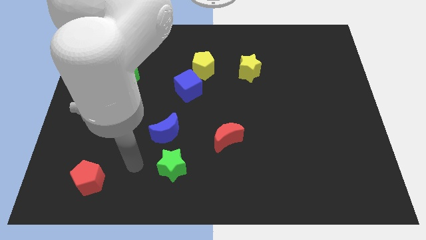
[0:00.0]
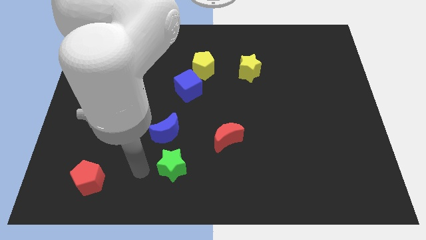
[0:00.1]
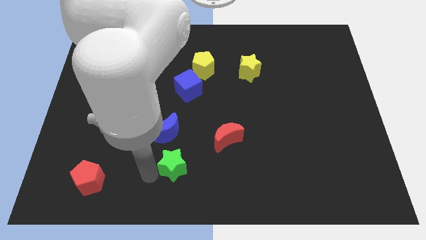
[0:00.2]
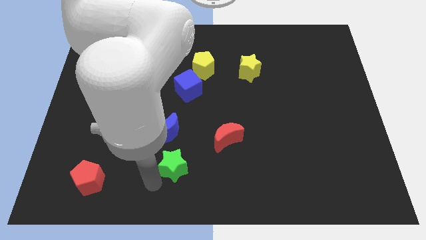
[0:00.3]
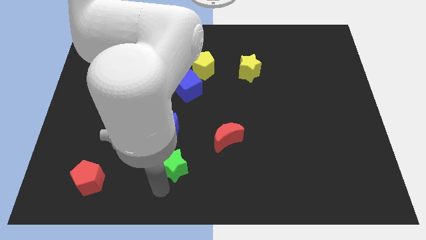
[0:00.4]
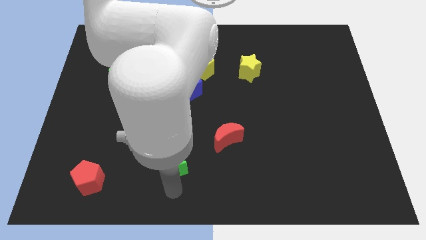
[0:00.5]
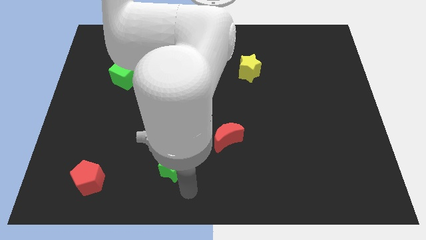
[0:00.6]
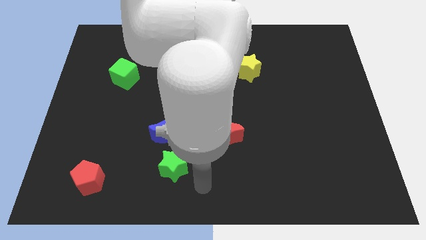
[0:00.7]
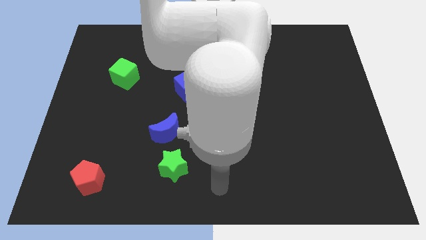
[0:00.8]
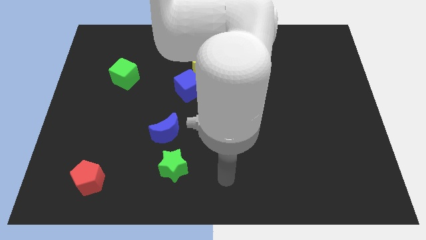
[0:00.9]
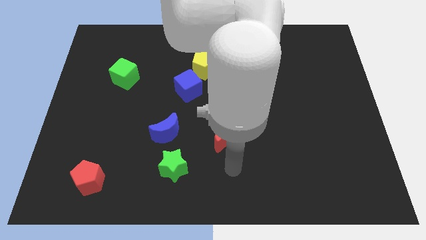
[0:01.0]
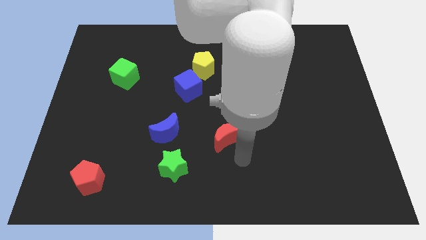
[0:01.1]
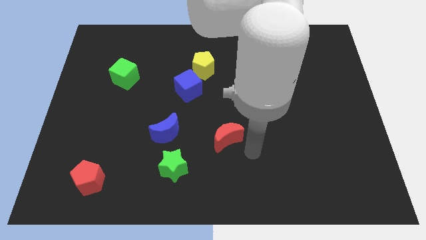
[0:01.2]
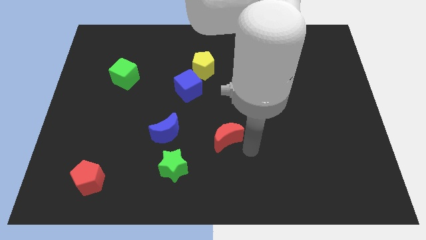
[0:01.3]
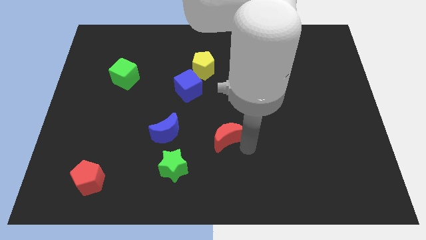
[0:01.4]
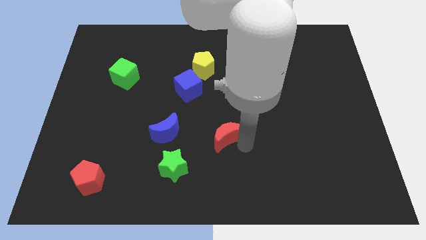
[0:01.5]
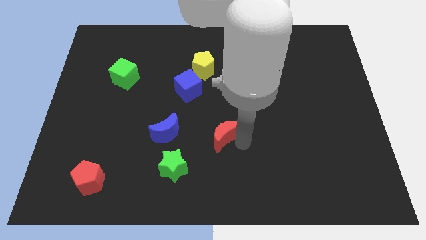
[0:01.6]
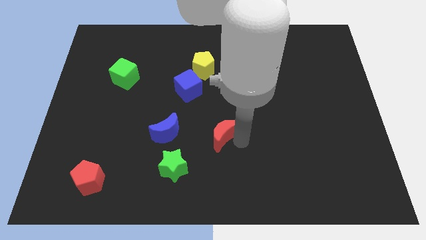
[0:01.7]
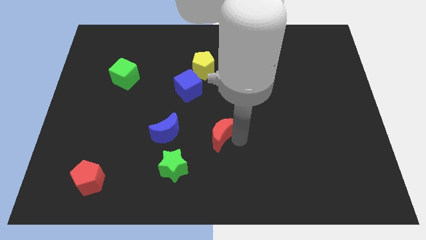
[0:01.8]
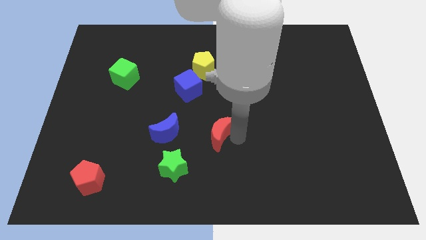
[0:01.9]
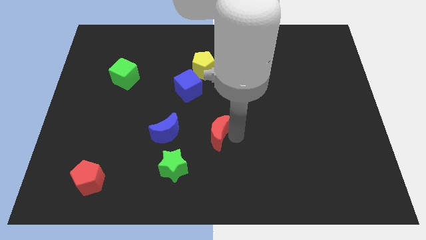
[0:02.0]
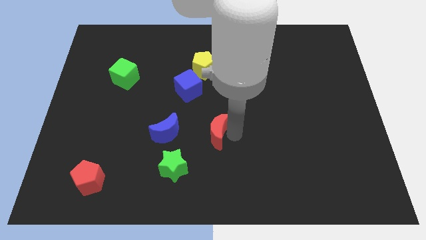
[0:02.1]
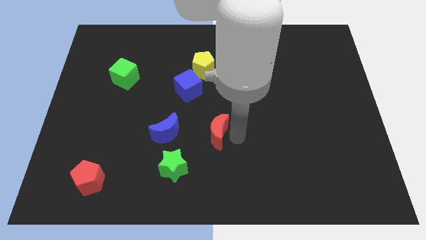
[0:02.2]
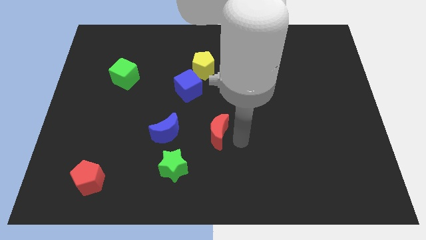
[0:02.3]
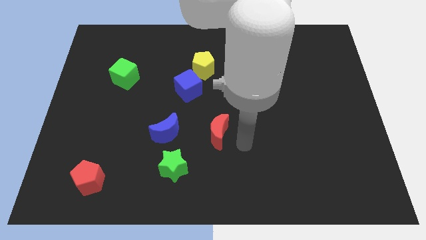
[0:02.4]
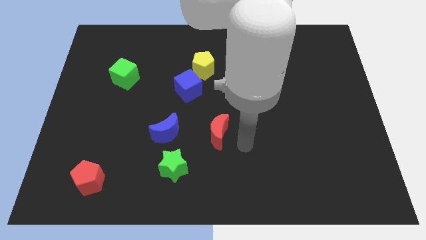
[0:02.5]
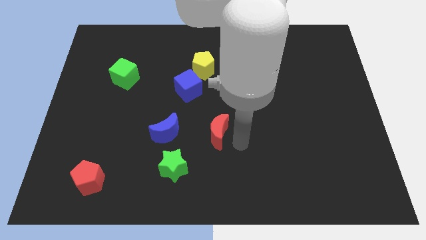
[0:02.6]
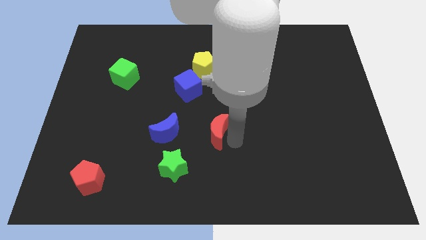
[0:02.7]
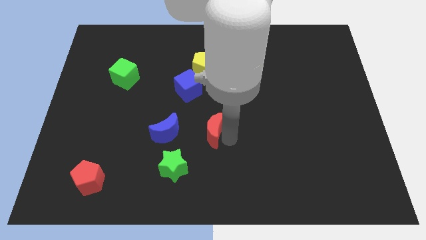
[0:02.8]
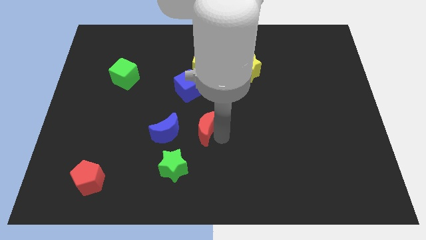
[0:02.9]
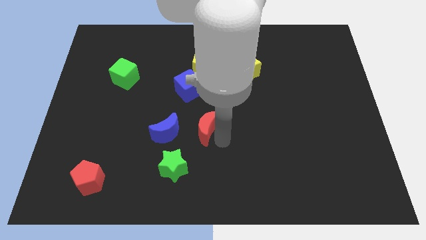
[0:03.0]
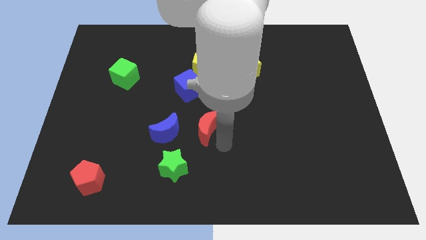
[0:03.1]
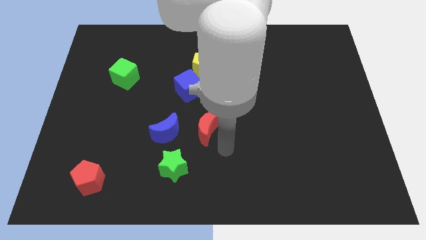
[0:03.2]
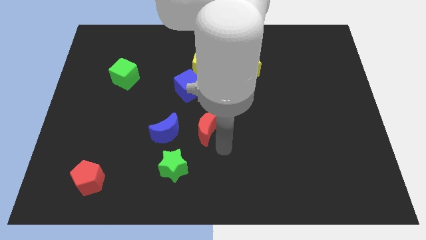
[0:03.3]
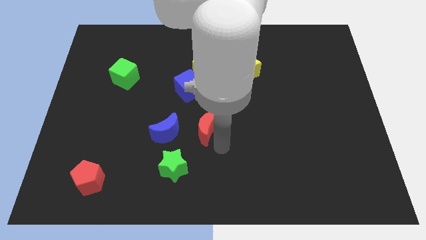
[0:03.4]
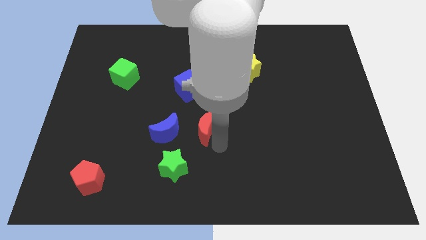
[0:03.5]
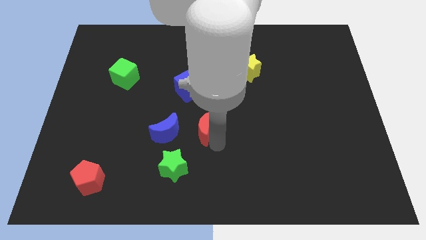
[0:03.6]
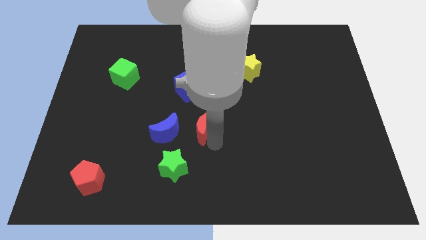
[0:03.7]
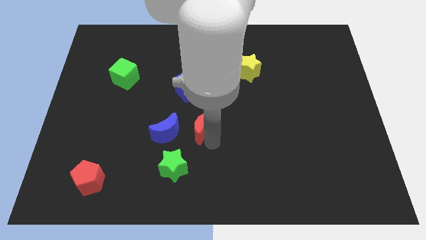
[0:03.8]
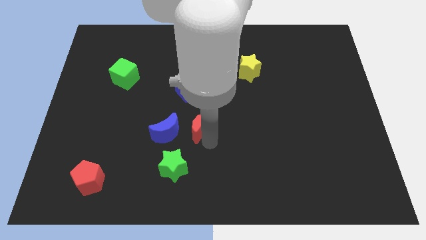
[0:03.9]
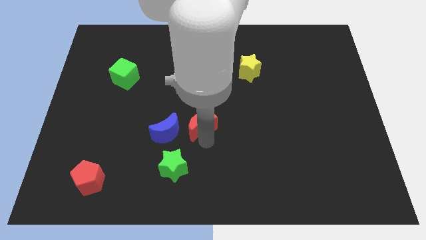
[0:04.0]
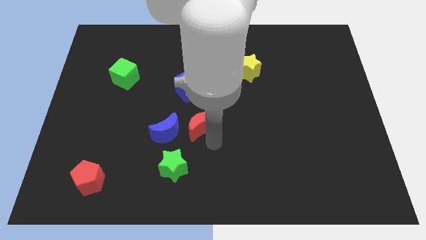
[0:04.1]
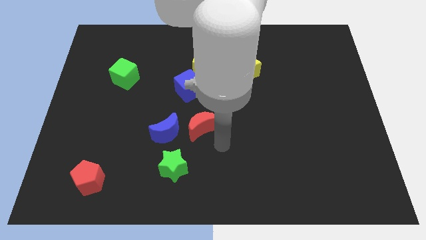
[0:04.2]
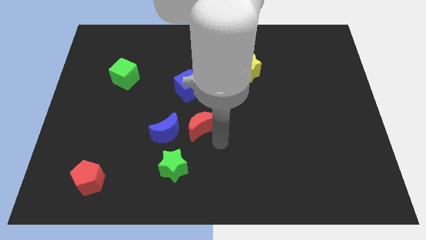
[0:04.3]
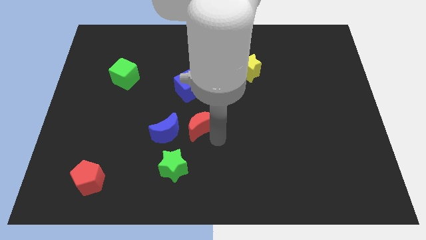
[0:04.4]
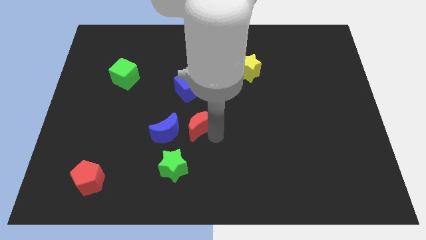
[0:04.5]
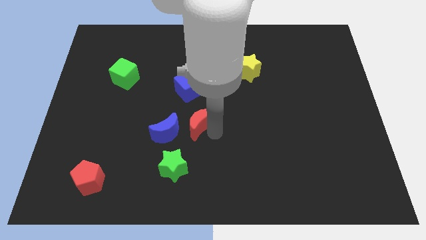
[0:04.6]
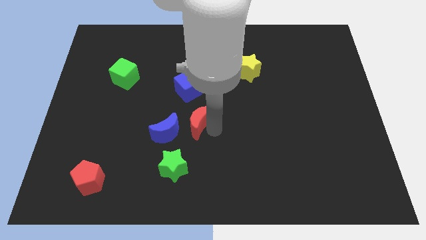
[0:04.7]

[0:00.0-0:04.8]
put the red moon above the green star

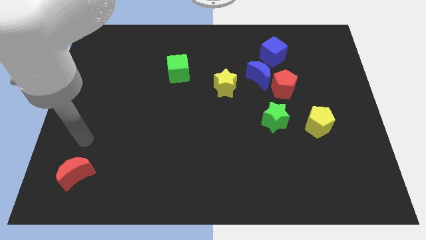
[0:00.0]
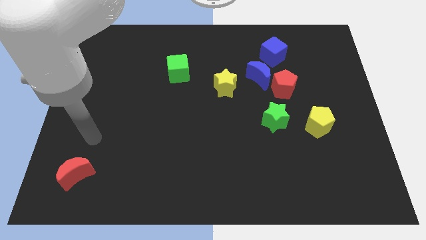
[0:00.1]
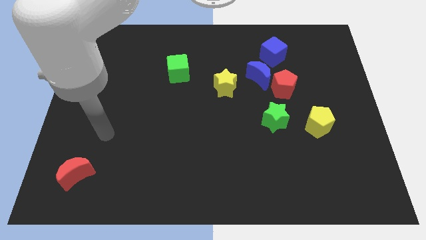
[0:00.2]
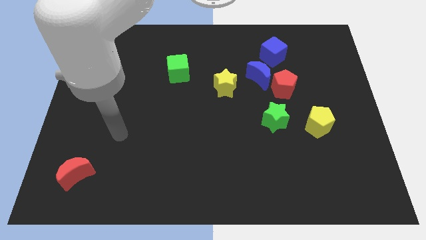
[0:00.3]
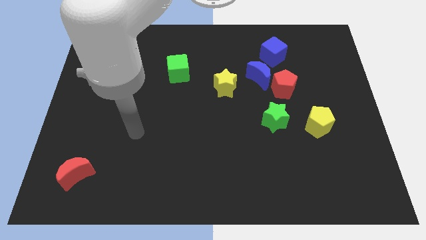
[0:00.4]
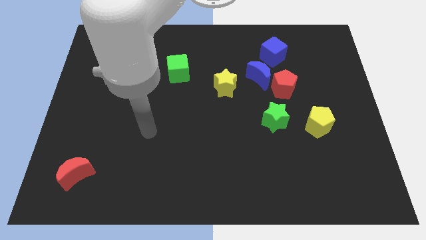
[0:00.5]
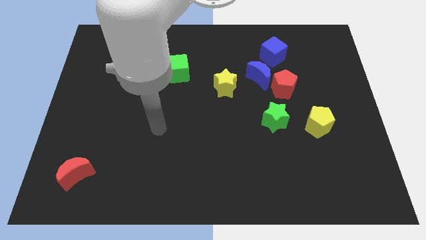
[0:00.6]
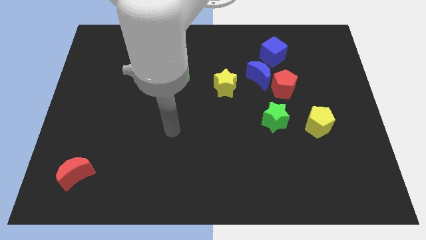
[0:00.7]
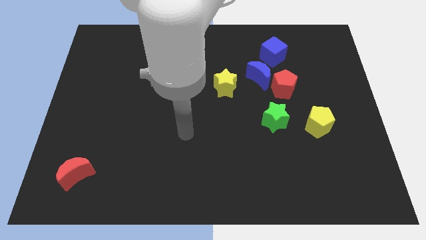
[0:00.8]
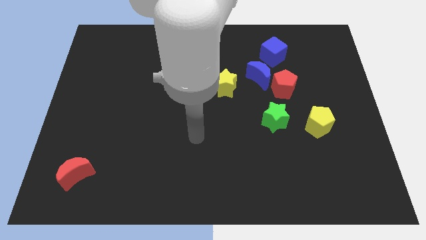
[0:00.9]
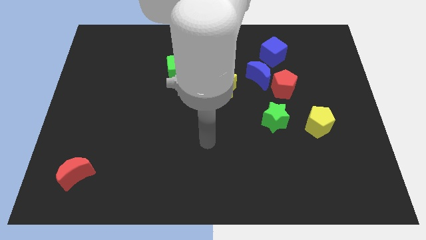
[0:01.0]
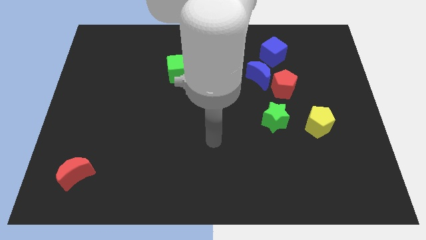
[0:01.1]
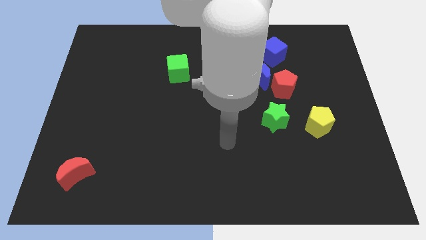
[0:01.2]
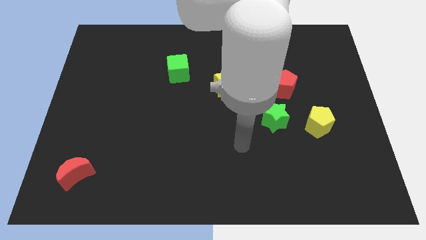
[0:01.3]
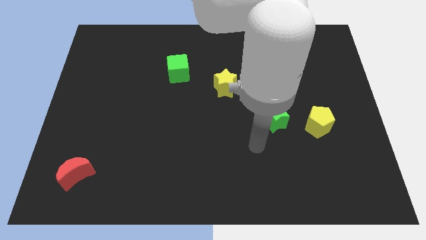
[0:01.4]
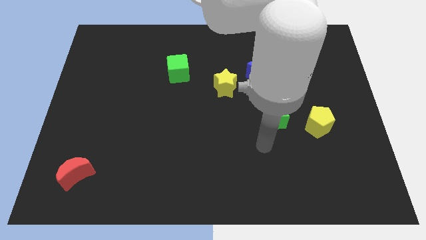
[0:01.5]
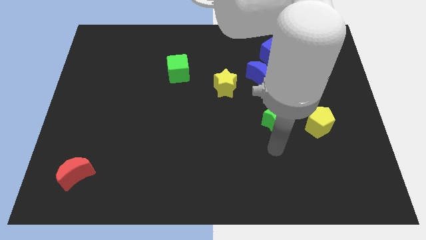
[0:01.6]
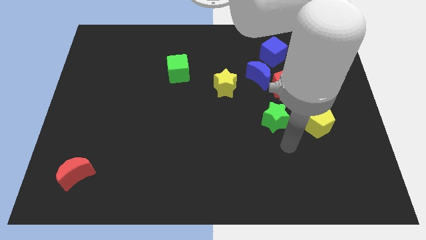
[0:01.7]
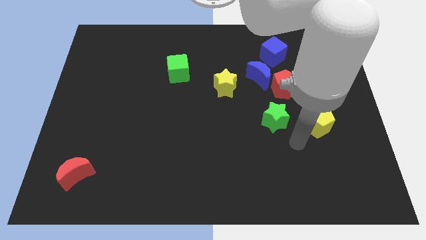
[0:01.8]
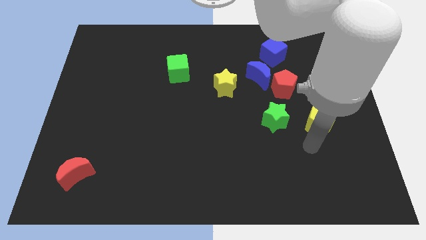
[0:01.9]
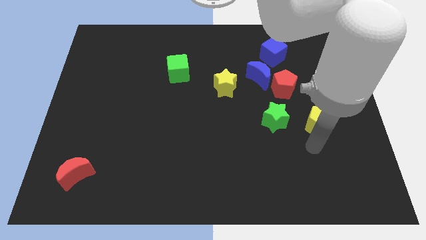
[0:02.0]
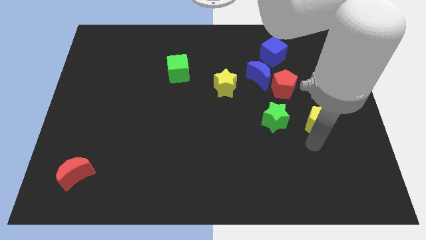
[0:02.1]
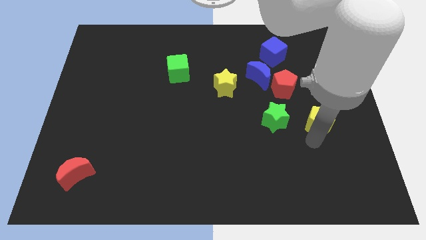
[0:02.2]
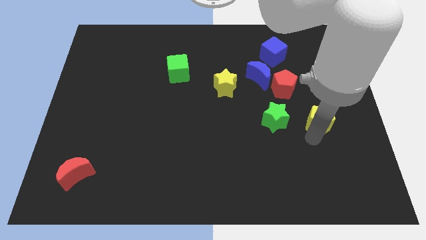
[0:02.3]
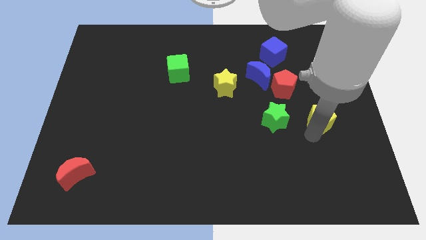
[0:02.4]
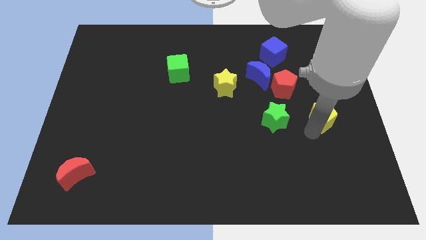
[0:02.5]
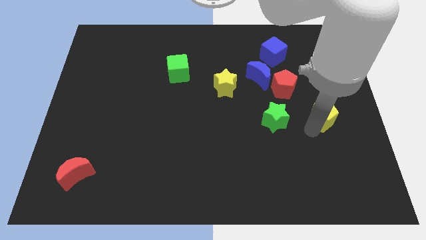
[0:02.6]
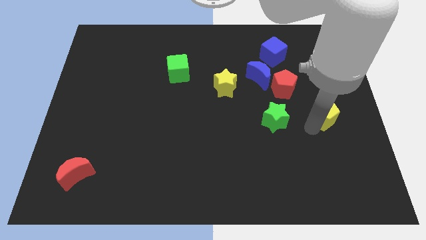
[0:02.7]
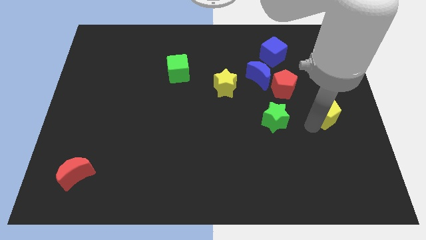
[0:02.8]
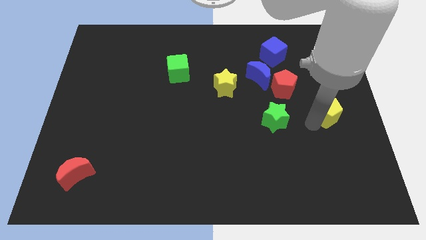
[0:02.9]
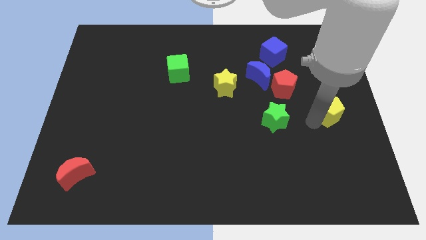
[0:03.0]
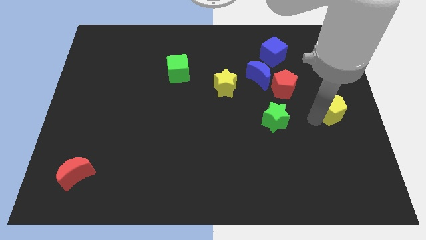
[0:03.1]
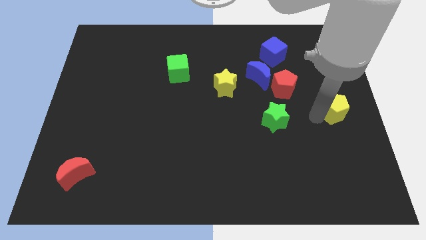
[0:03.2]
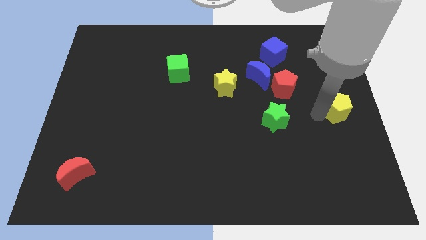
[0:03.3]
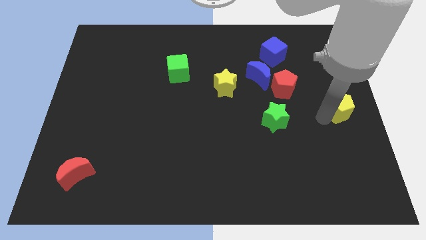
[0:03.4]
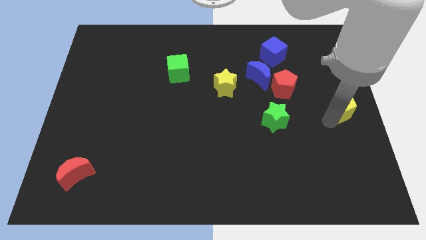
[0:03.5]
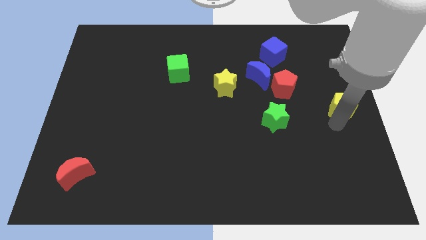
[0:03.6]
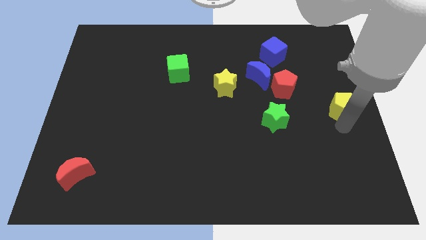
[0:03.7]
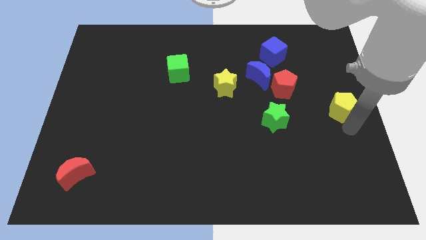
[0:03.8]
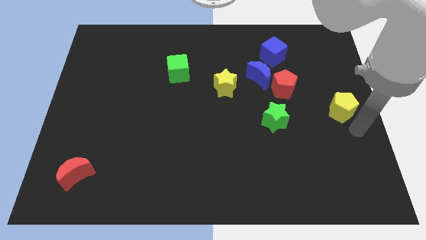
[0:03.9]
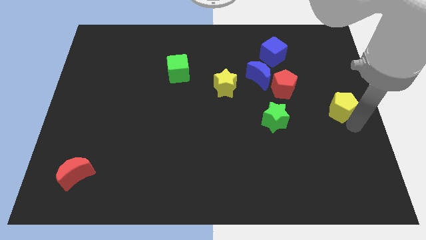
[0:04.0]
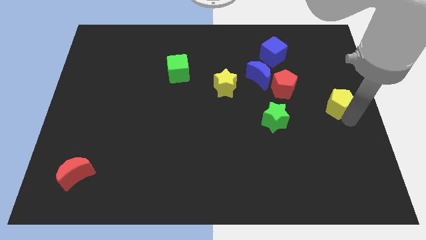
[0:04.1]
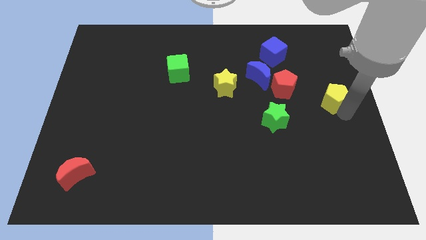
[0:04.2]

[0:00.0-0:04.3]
put the yellow pentagon to the right of the red pentagon
